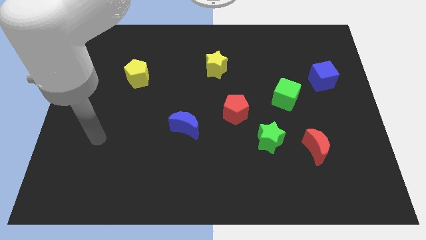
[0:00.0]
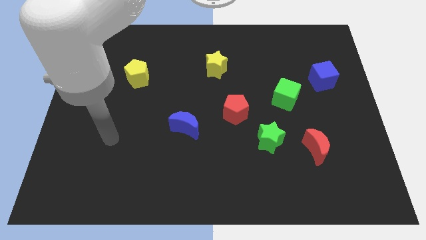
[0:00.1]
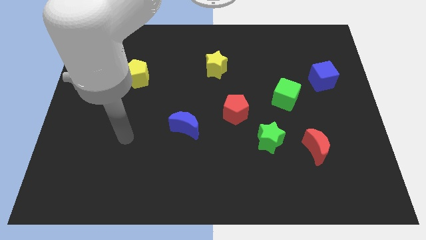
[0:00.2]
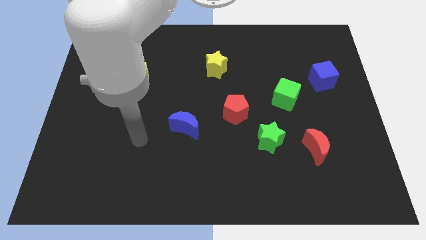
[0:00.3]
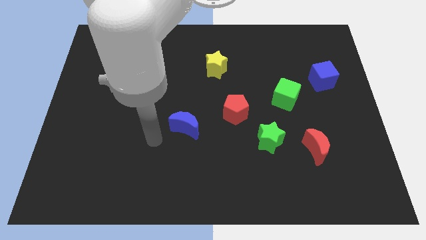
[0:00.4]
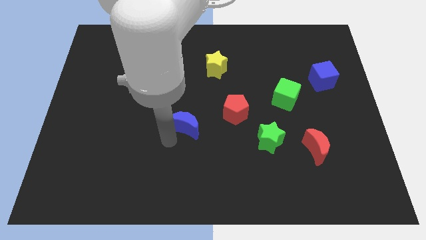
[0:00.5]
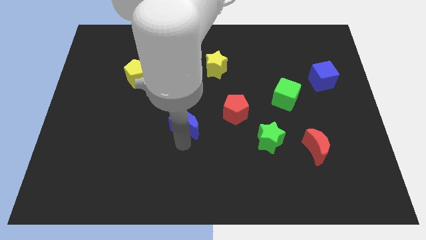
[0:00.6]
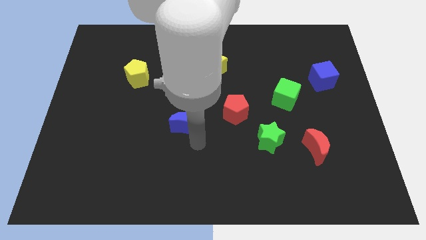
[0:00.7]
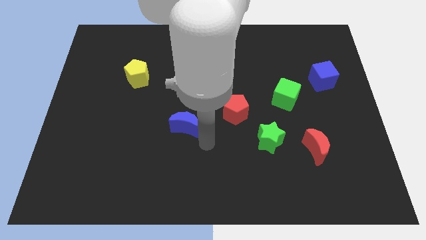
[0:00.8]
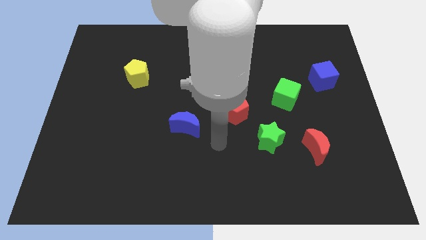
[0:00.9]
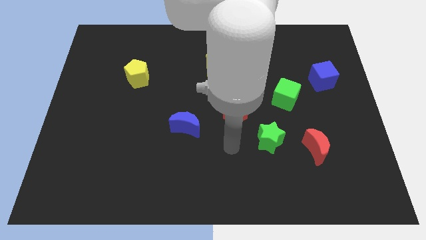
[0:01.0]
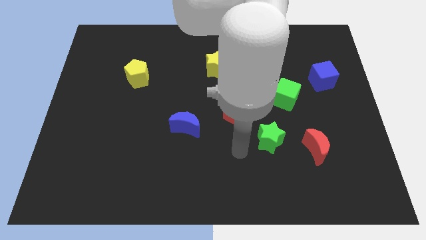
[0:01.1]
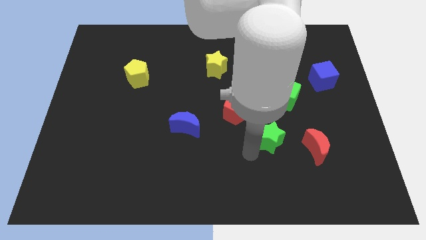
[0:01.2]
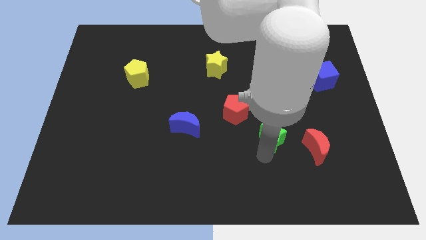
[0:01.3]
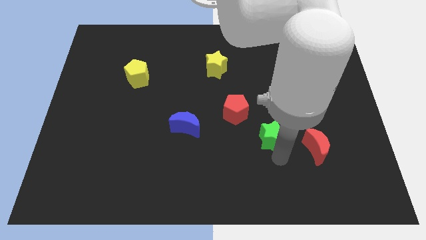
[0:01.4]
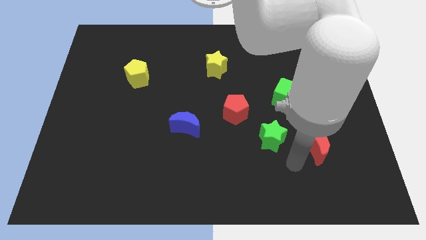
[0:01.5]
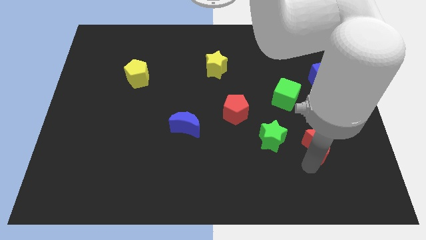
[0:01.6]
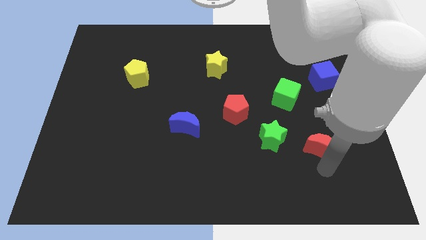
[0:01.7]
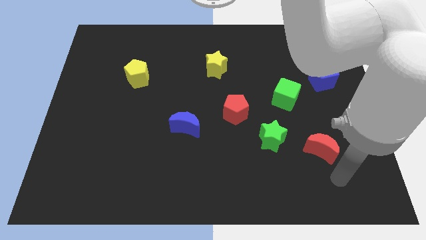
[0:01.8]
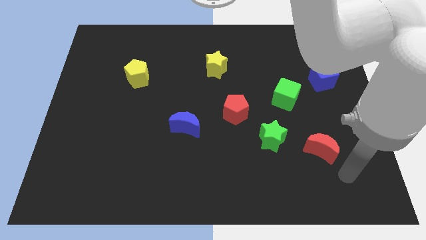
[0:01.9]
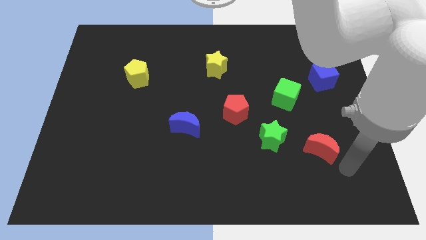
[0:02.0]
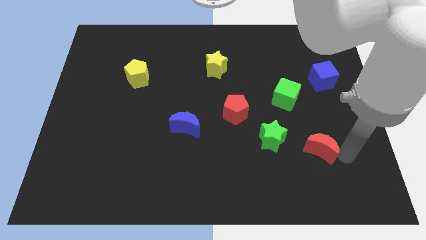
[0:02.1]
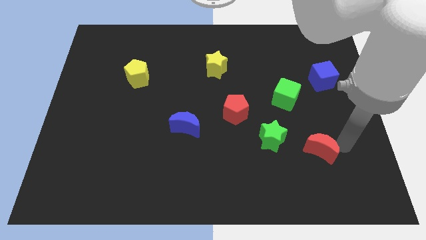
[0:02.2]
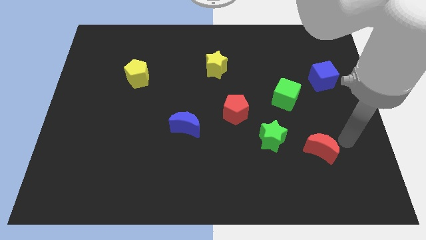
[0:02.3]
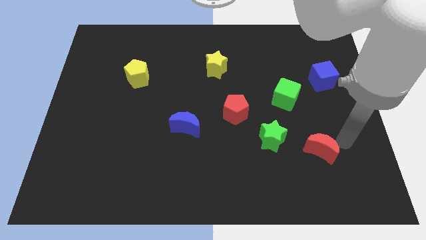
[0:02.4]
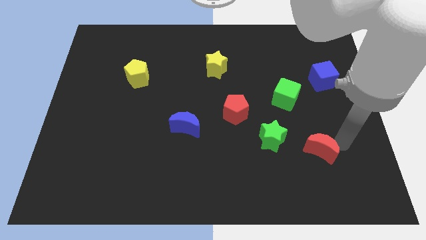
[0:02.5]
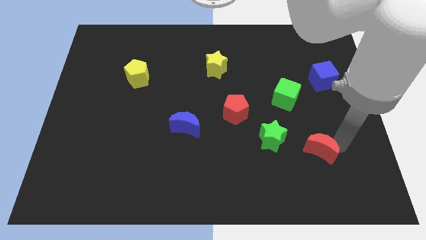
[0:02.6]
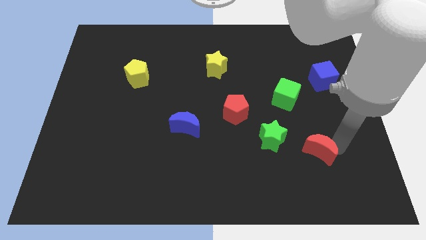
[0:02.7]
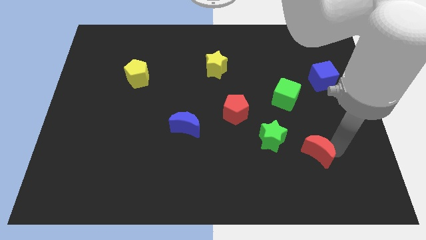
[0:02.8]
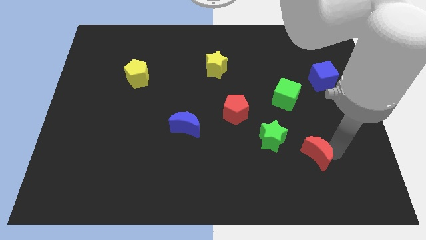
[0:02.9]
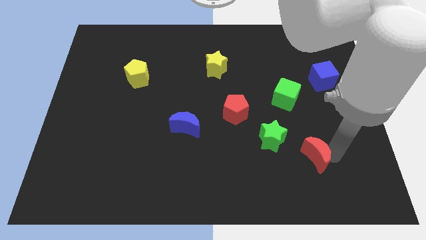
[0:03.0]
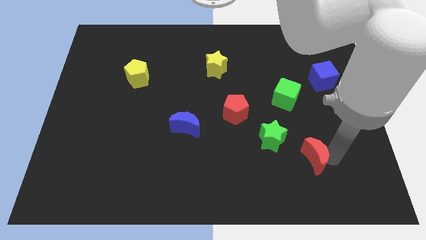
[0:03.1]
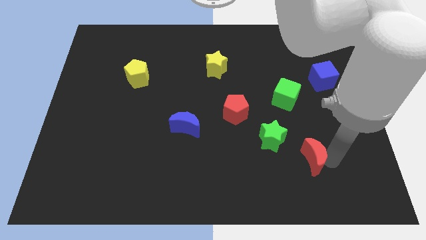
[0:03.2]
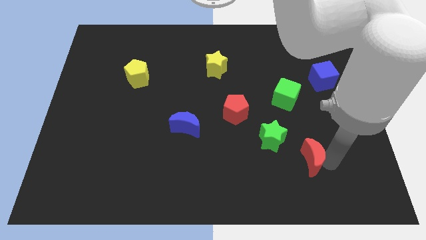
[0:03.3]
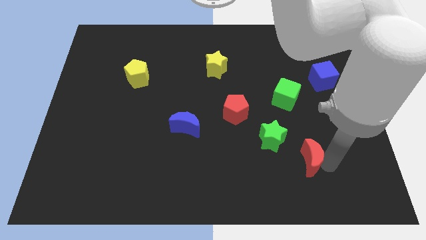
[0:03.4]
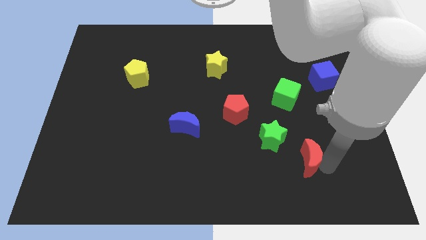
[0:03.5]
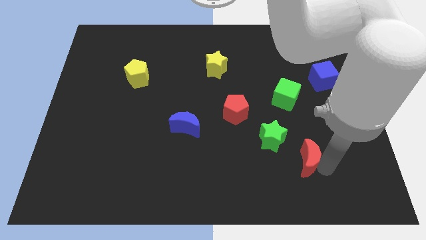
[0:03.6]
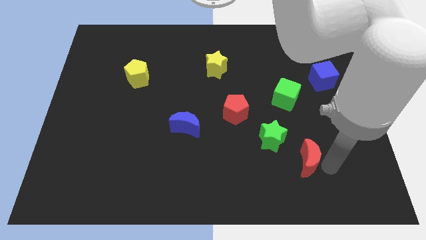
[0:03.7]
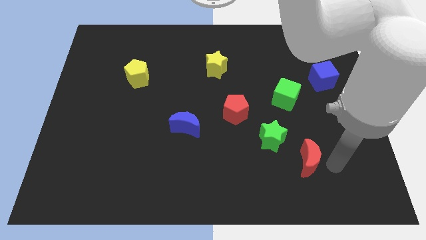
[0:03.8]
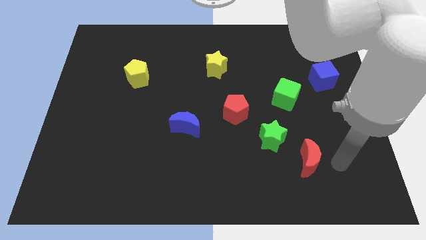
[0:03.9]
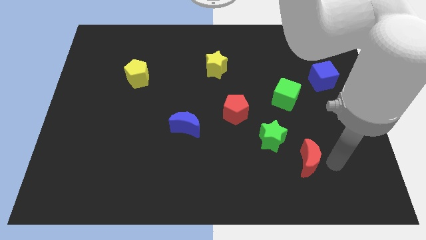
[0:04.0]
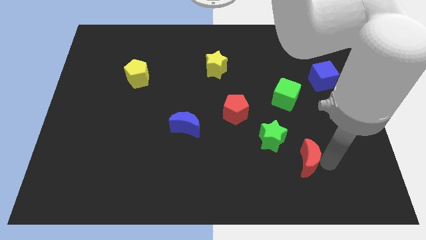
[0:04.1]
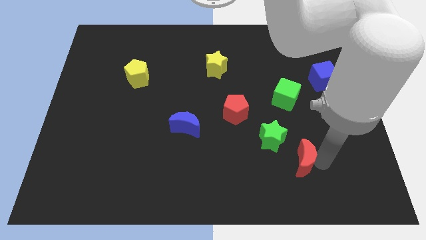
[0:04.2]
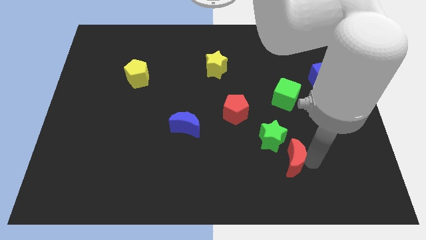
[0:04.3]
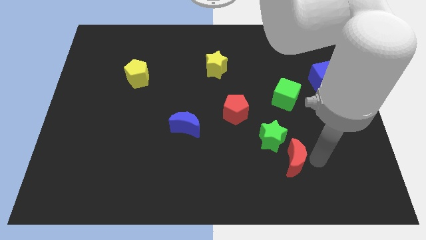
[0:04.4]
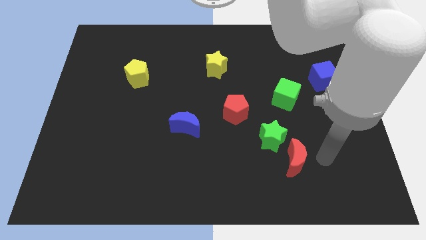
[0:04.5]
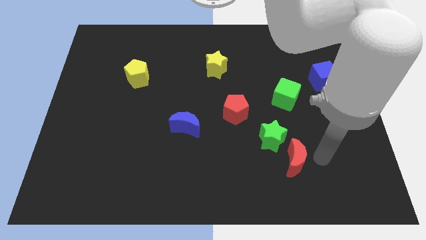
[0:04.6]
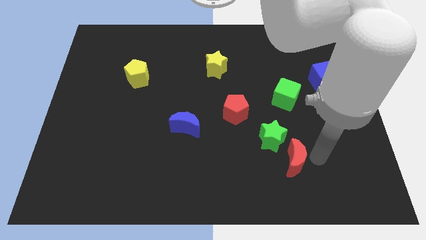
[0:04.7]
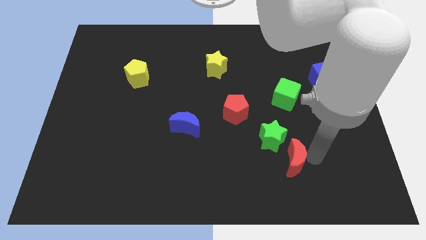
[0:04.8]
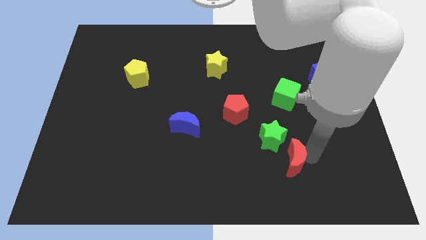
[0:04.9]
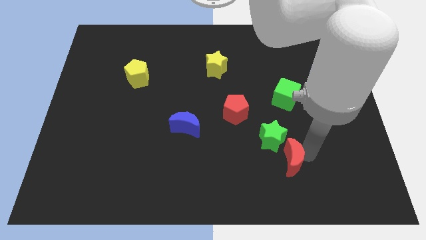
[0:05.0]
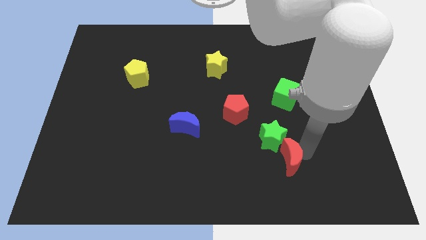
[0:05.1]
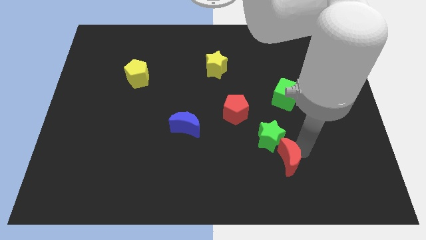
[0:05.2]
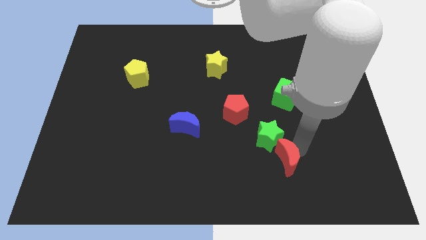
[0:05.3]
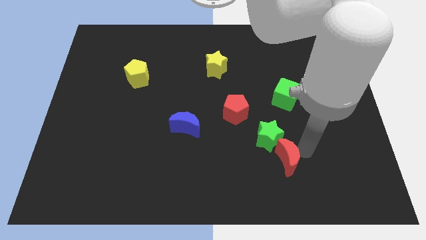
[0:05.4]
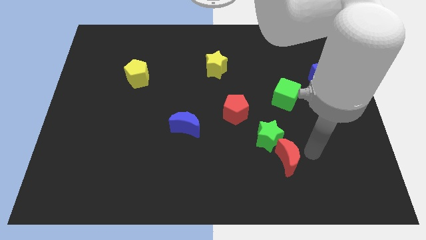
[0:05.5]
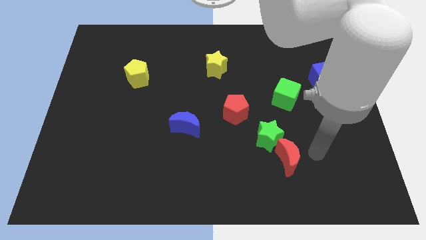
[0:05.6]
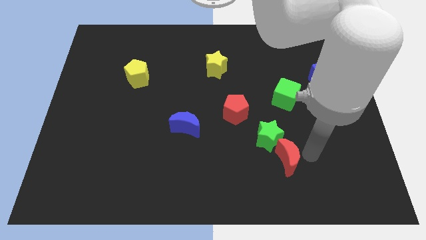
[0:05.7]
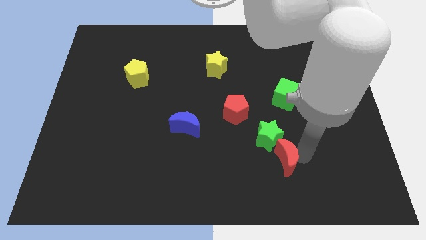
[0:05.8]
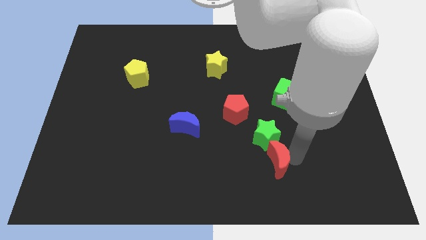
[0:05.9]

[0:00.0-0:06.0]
move the red moon left somewhat

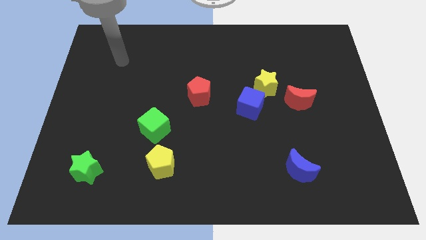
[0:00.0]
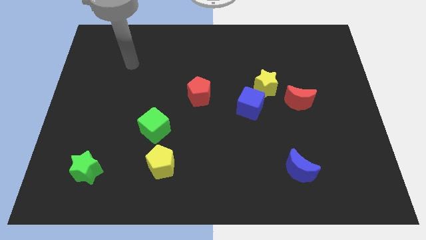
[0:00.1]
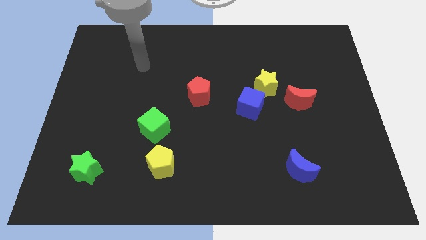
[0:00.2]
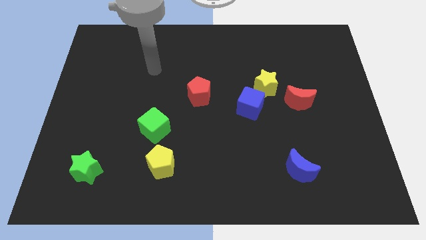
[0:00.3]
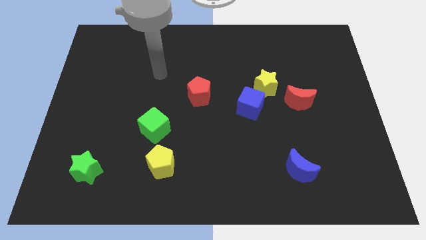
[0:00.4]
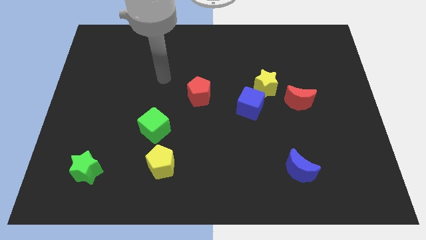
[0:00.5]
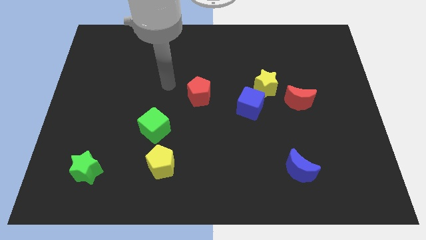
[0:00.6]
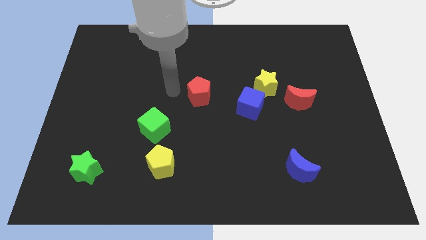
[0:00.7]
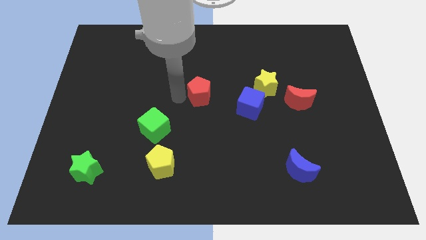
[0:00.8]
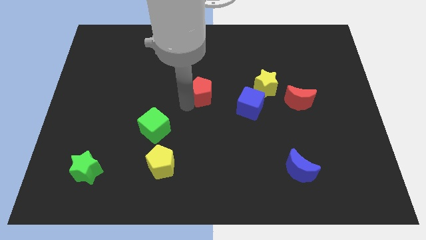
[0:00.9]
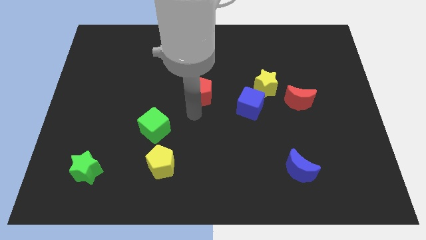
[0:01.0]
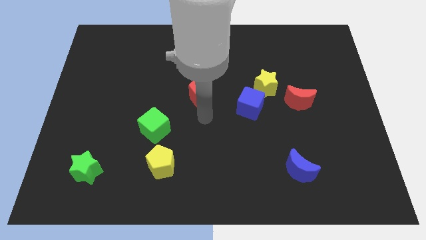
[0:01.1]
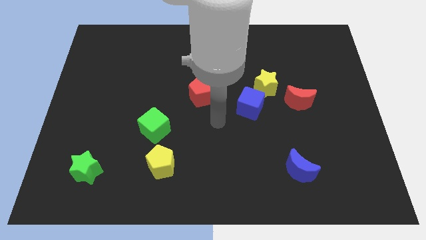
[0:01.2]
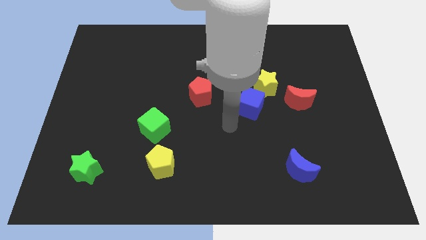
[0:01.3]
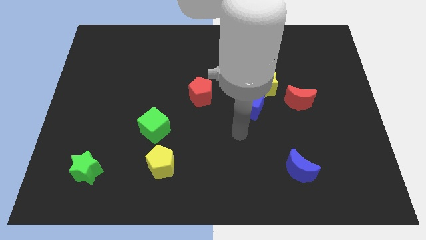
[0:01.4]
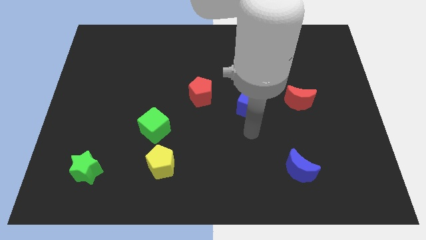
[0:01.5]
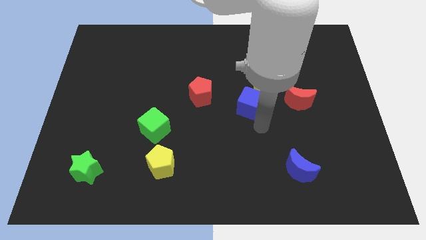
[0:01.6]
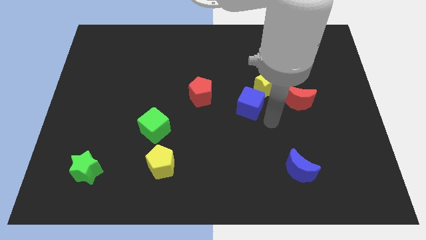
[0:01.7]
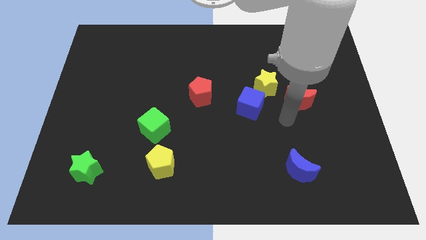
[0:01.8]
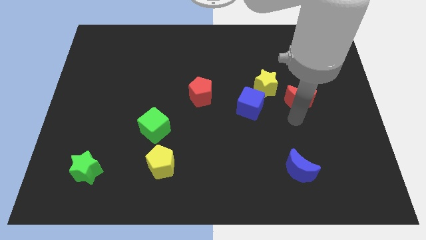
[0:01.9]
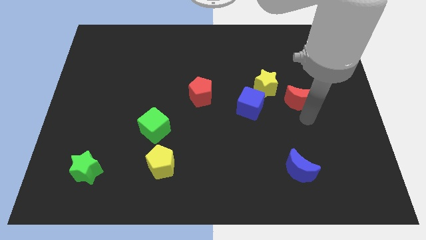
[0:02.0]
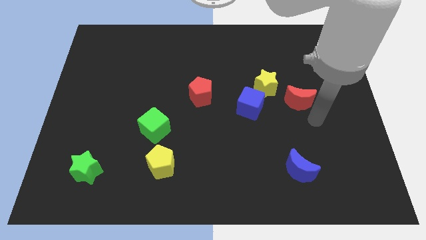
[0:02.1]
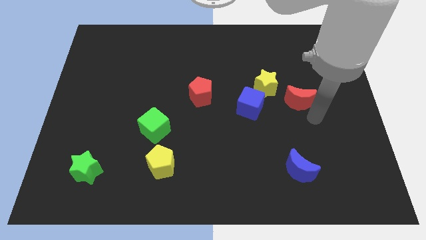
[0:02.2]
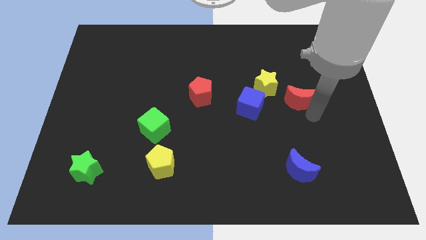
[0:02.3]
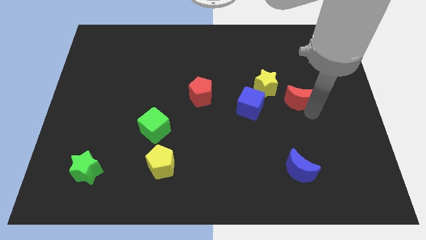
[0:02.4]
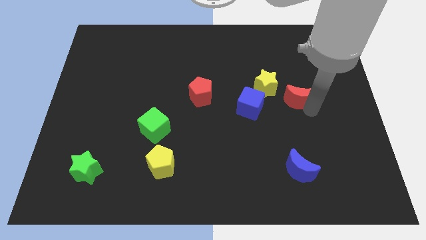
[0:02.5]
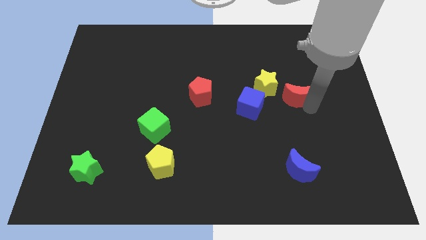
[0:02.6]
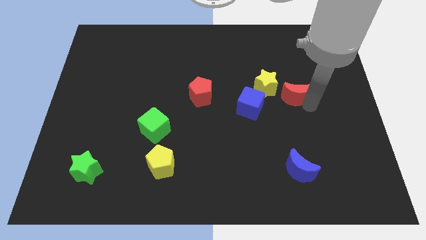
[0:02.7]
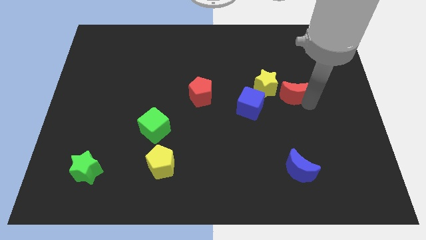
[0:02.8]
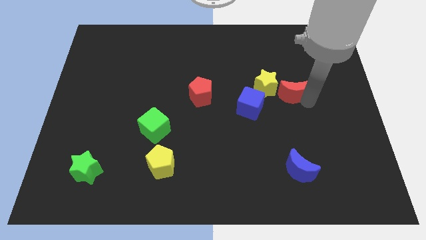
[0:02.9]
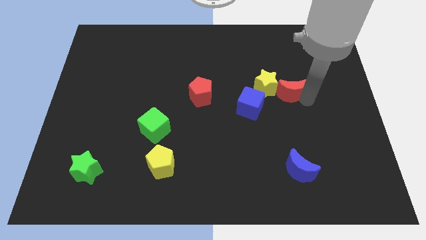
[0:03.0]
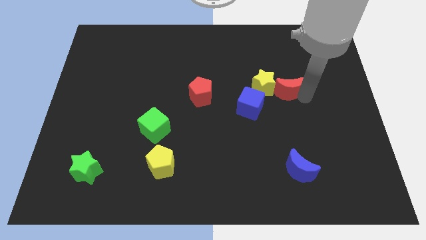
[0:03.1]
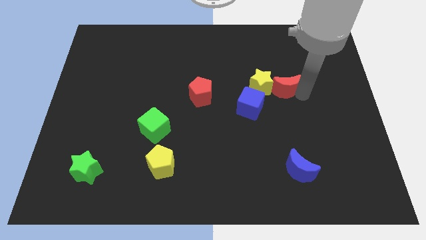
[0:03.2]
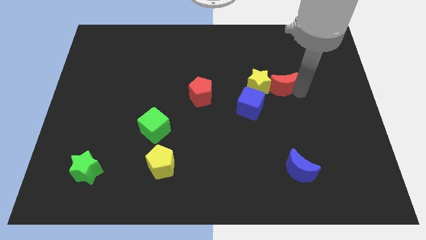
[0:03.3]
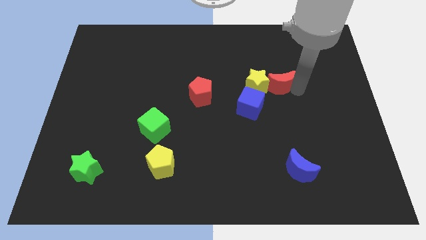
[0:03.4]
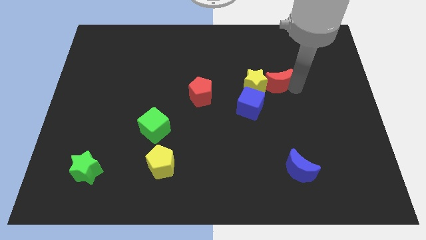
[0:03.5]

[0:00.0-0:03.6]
move the red moon up and to the left a little
